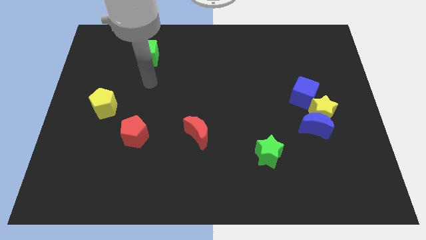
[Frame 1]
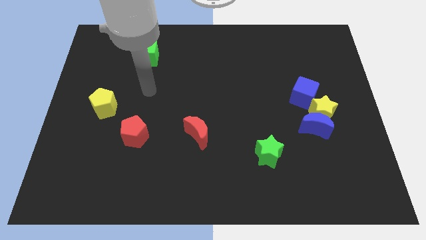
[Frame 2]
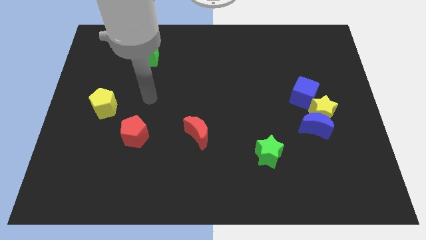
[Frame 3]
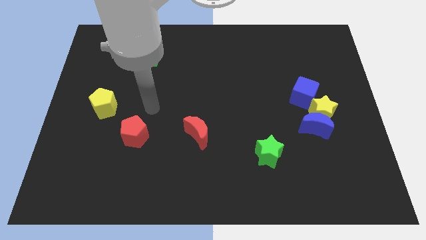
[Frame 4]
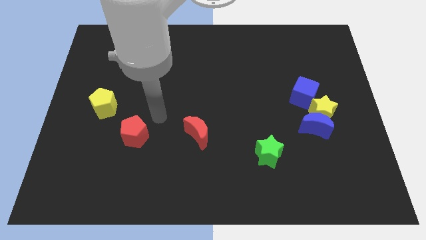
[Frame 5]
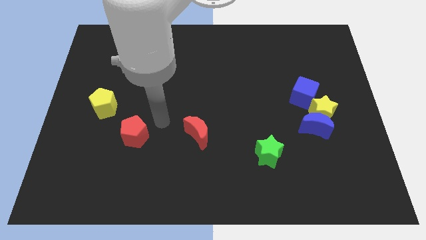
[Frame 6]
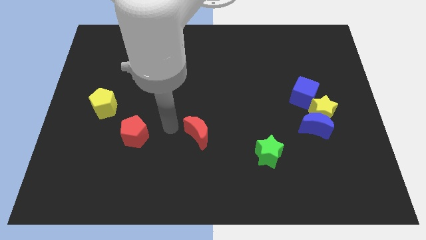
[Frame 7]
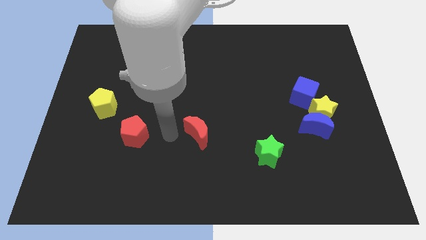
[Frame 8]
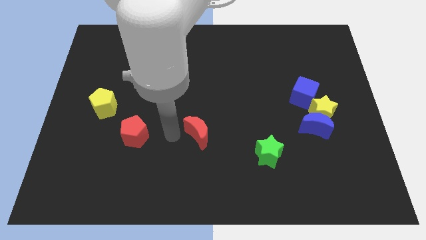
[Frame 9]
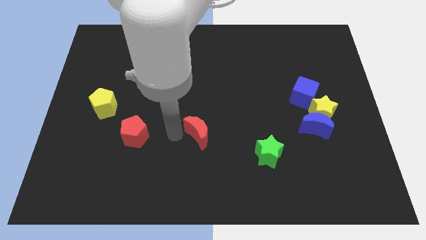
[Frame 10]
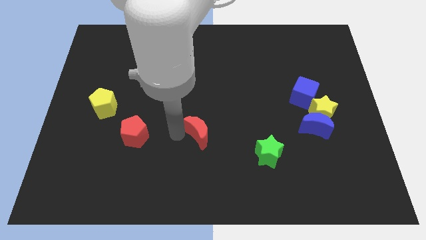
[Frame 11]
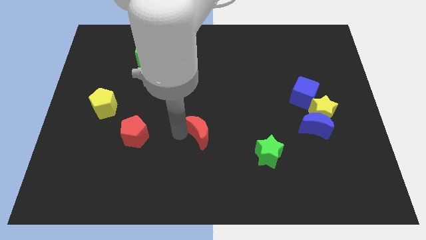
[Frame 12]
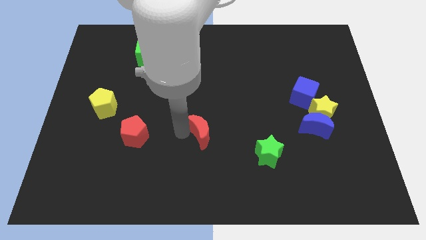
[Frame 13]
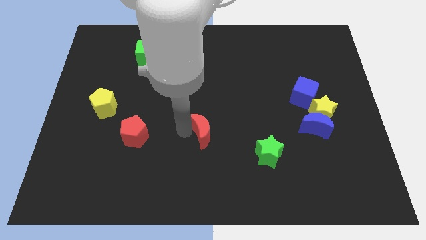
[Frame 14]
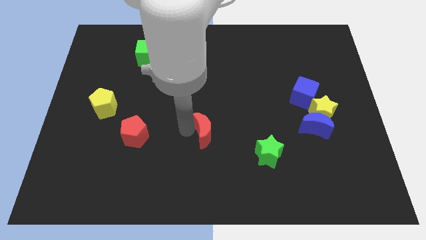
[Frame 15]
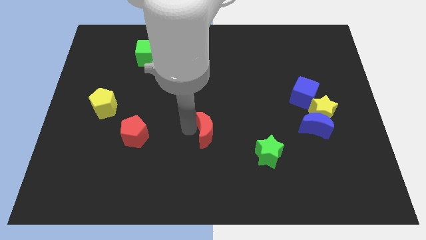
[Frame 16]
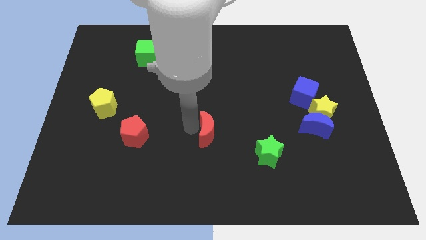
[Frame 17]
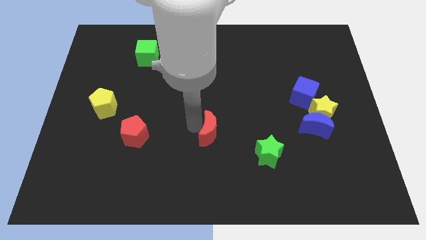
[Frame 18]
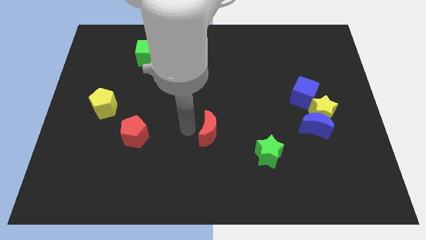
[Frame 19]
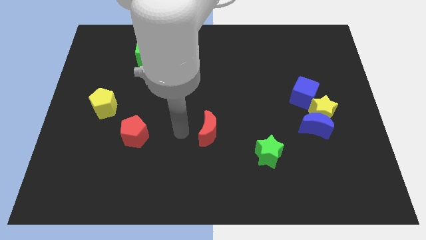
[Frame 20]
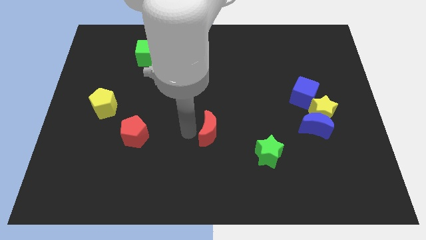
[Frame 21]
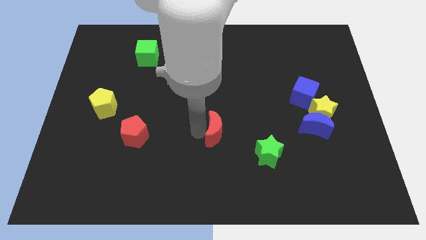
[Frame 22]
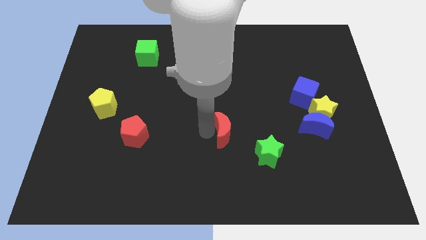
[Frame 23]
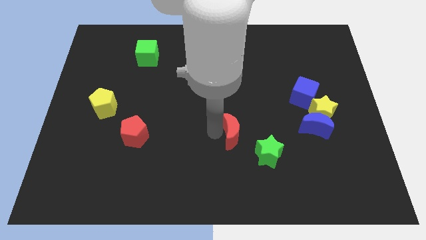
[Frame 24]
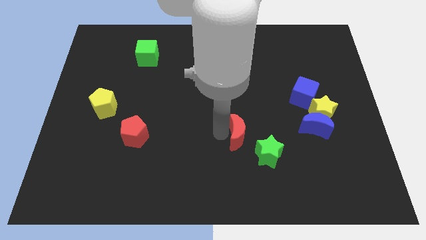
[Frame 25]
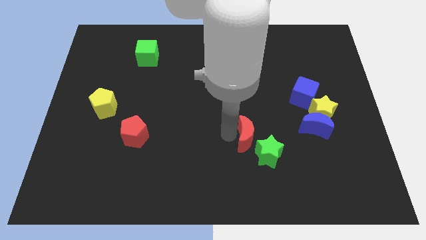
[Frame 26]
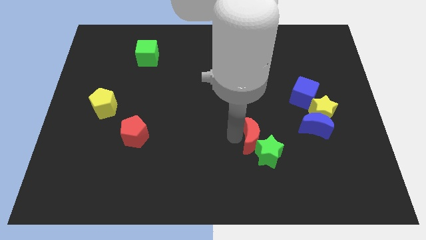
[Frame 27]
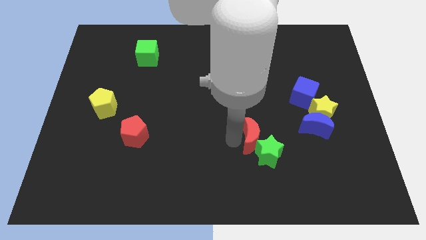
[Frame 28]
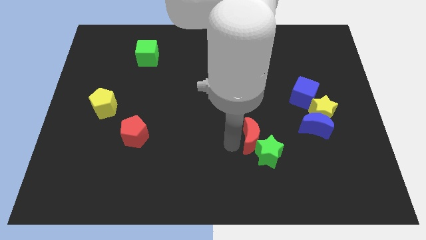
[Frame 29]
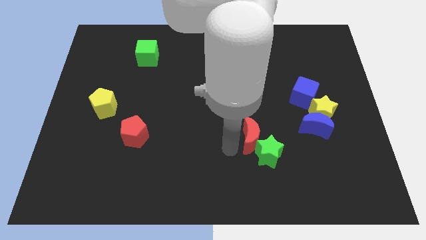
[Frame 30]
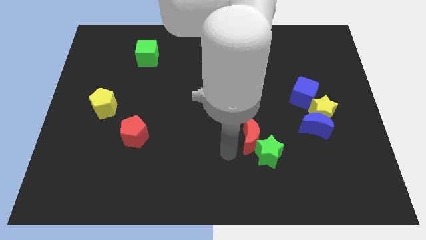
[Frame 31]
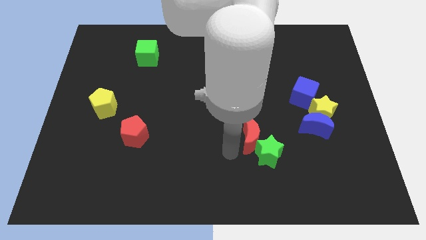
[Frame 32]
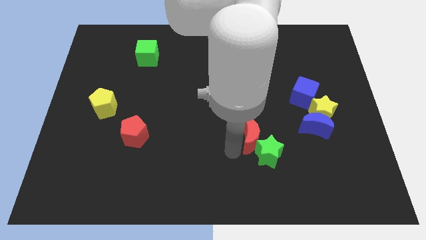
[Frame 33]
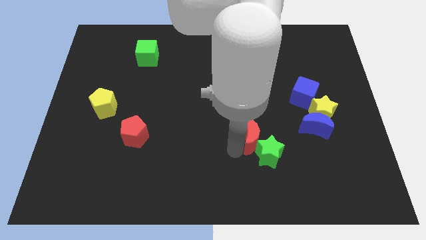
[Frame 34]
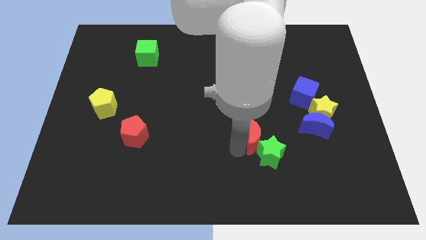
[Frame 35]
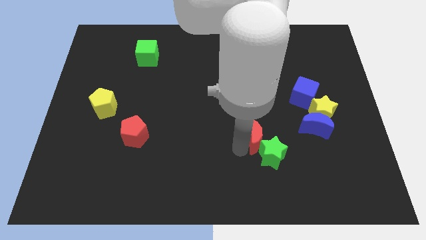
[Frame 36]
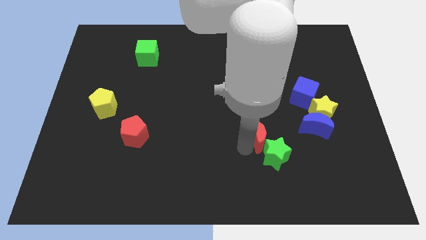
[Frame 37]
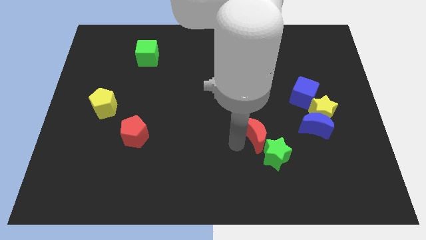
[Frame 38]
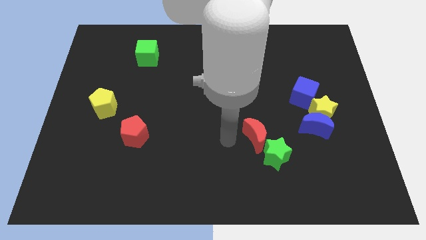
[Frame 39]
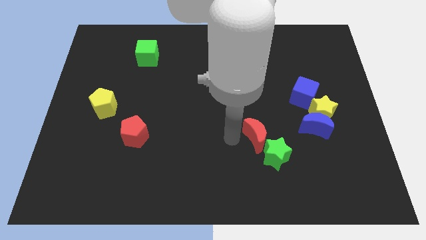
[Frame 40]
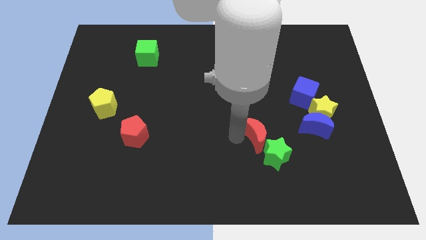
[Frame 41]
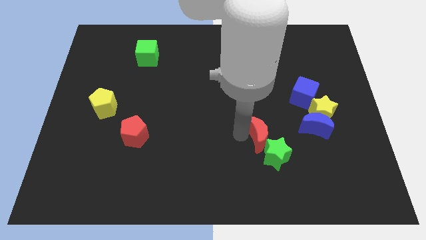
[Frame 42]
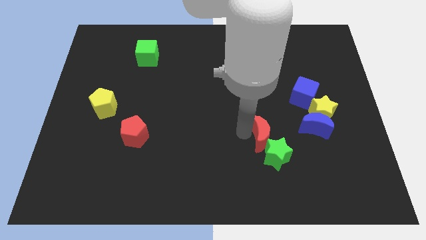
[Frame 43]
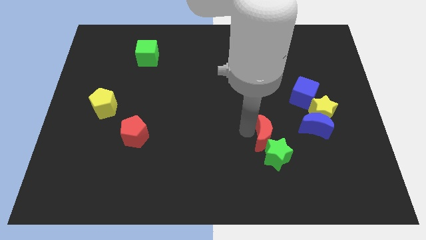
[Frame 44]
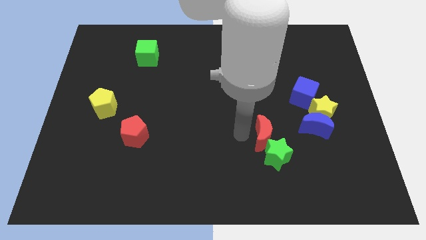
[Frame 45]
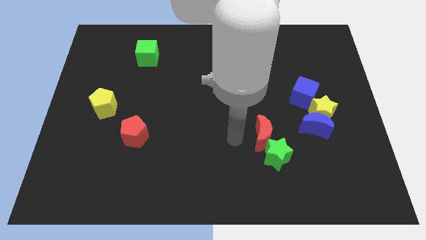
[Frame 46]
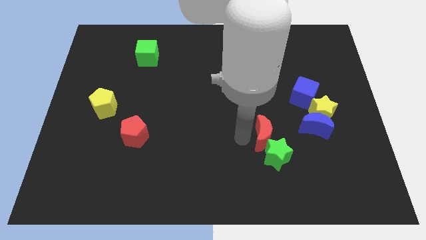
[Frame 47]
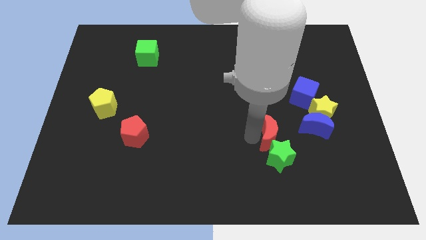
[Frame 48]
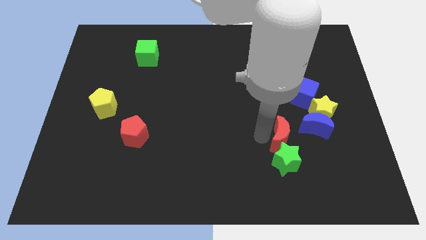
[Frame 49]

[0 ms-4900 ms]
slide the red moon to the bottom left side of the yellow star

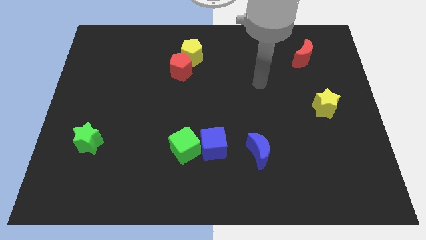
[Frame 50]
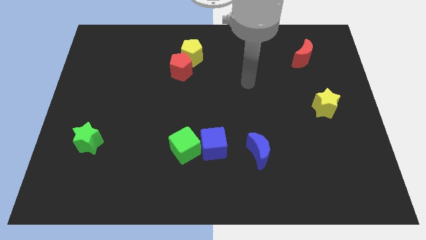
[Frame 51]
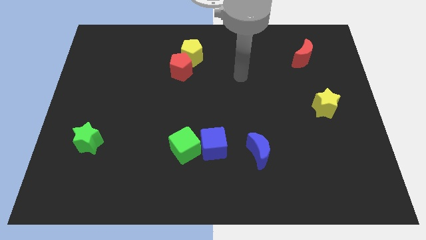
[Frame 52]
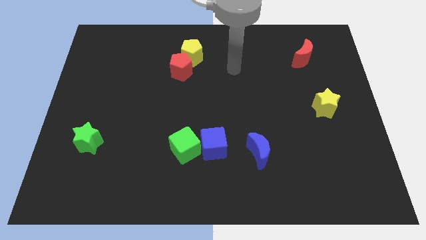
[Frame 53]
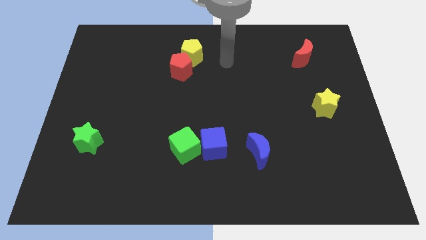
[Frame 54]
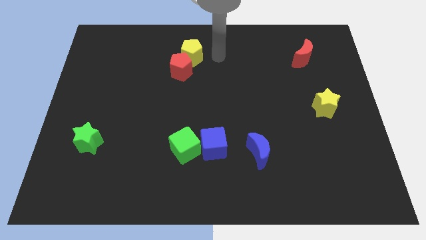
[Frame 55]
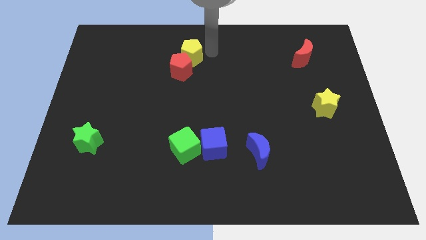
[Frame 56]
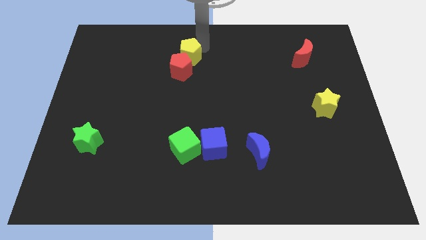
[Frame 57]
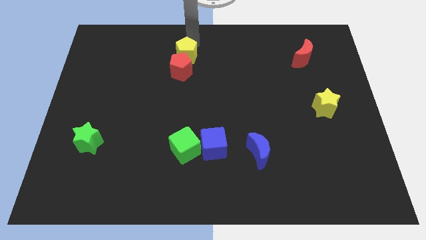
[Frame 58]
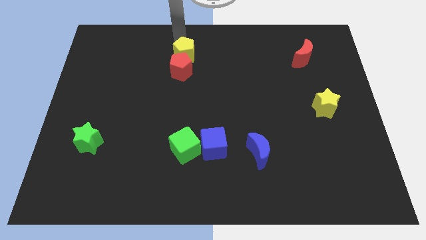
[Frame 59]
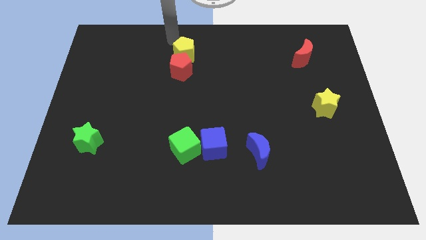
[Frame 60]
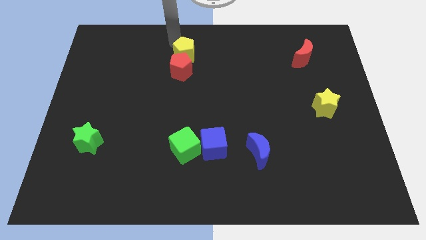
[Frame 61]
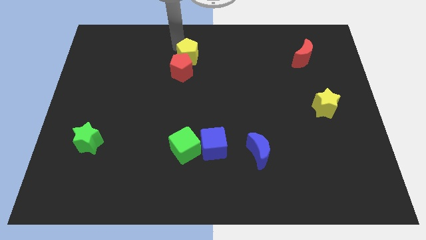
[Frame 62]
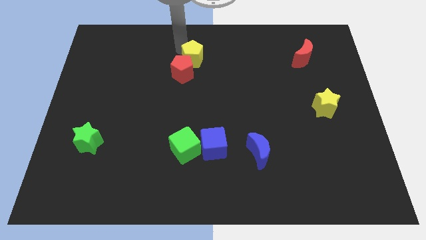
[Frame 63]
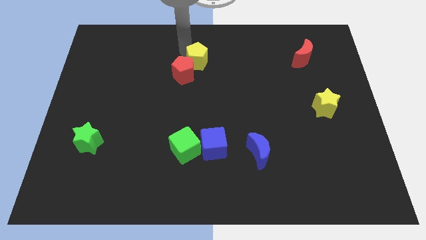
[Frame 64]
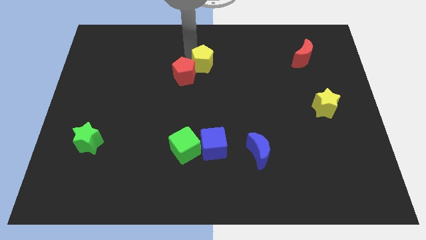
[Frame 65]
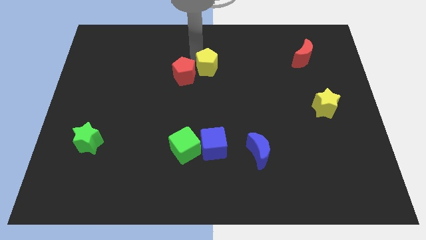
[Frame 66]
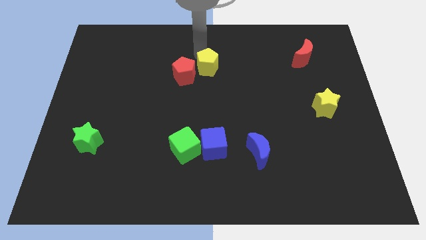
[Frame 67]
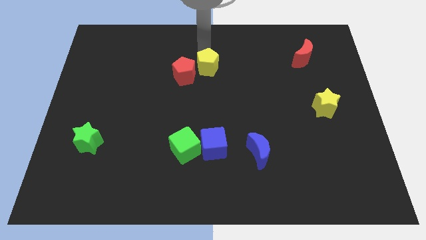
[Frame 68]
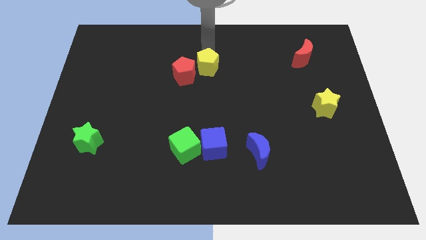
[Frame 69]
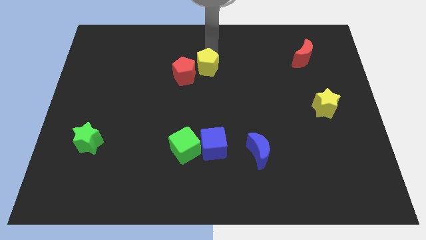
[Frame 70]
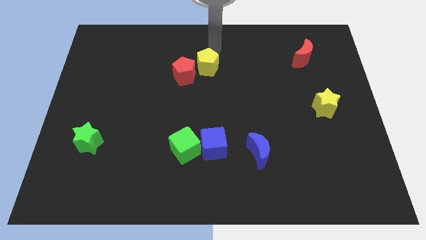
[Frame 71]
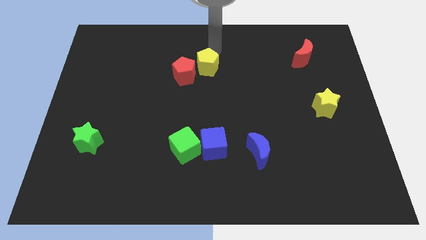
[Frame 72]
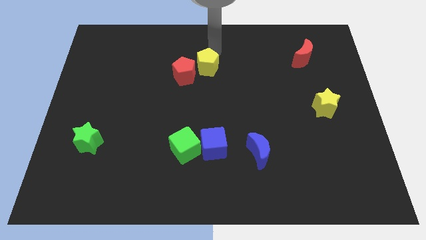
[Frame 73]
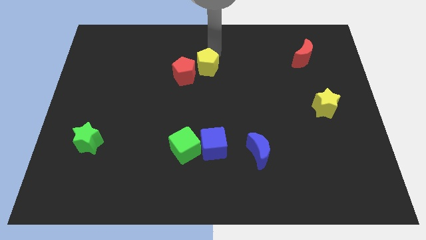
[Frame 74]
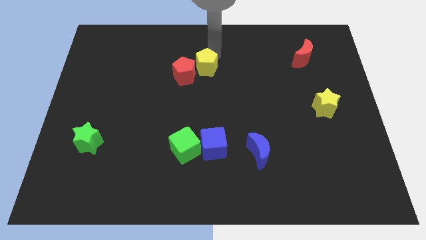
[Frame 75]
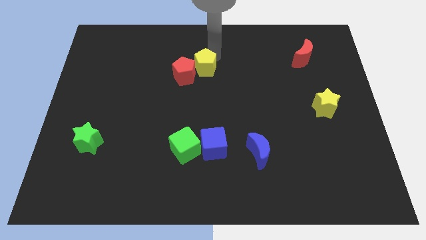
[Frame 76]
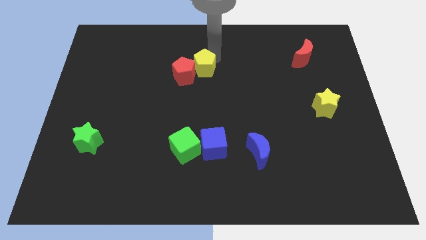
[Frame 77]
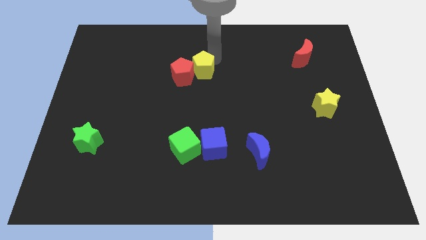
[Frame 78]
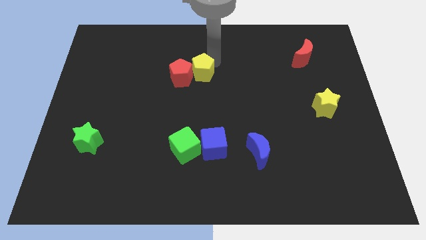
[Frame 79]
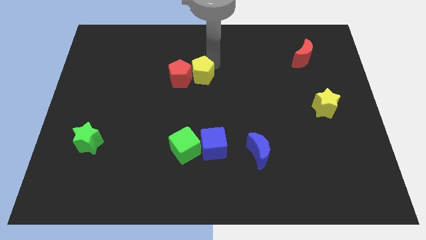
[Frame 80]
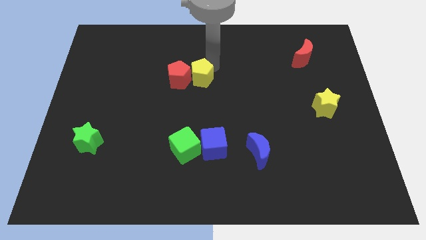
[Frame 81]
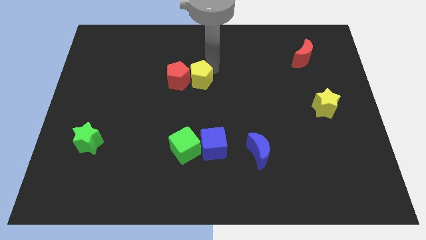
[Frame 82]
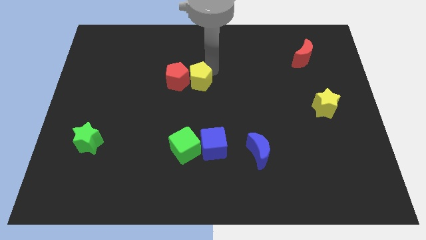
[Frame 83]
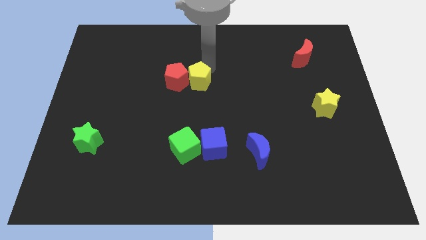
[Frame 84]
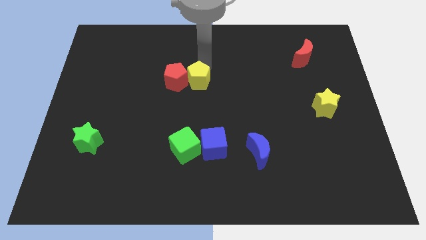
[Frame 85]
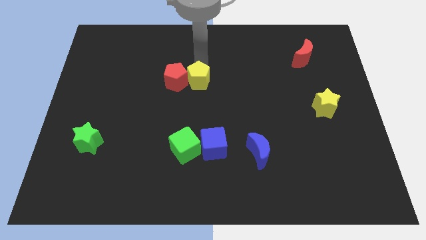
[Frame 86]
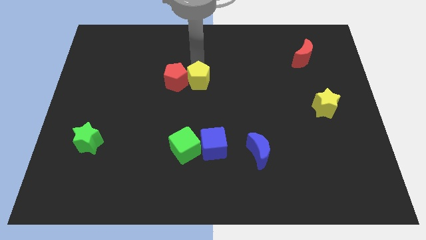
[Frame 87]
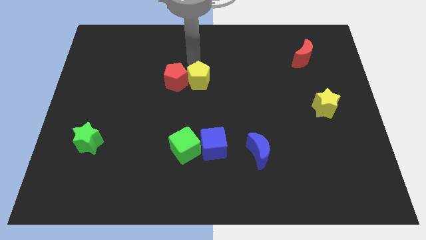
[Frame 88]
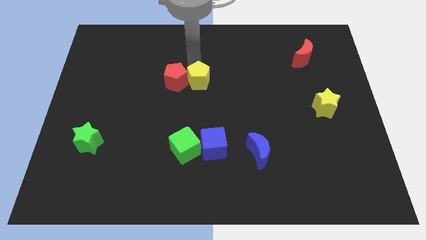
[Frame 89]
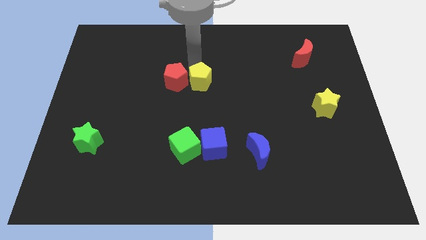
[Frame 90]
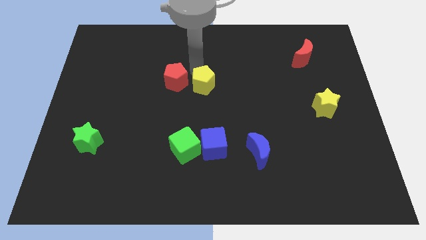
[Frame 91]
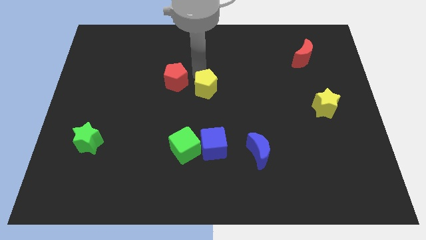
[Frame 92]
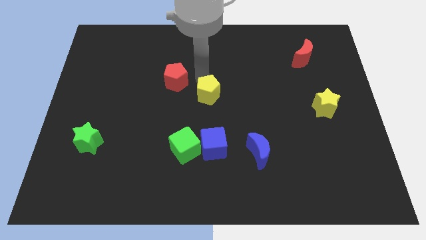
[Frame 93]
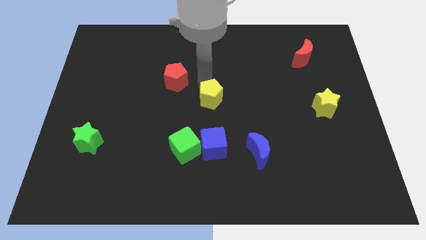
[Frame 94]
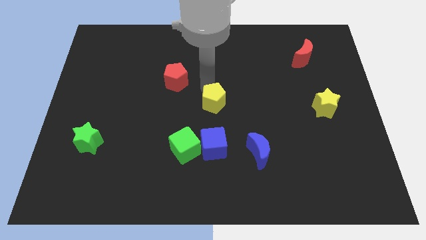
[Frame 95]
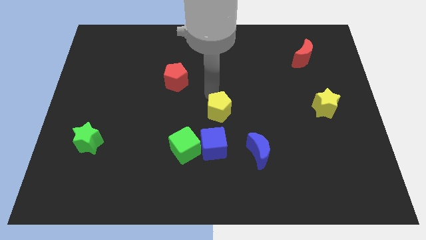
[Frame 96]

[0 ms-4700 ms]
push the yellow pentagon diagonally up and to the right of the green cube
